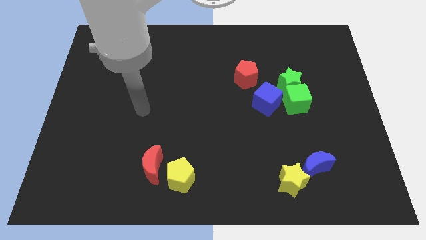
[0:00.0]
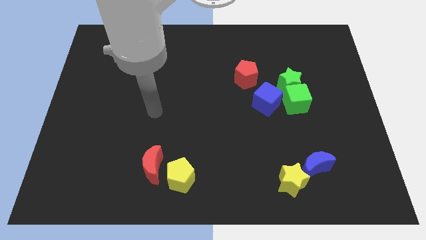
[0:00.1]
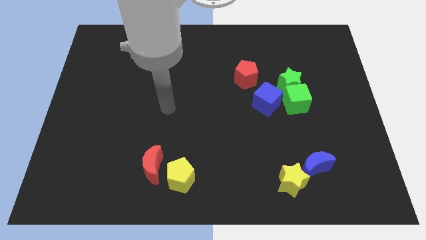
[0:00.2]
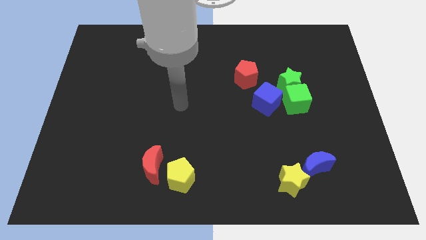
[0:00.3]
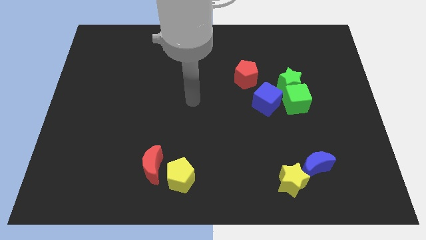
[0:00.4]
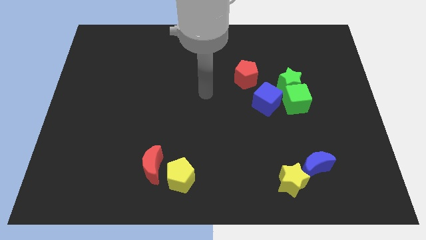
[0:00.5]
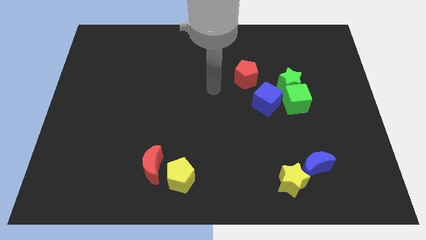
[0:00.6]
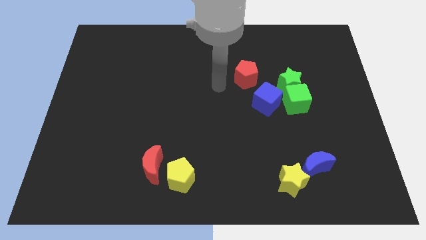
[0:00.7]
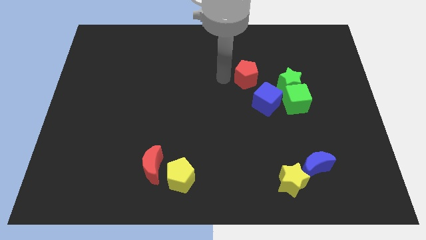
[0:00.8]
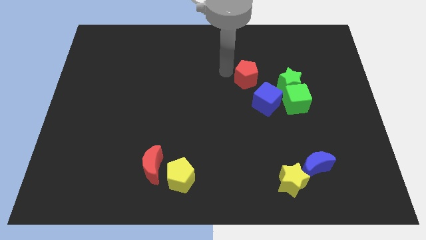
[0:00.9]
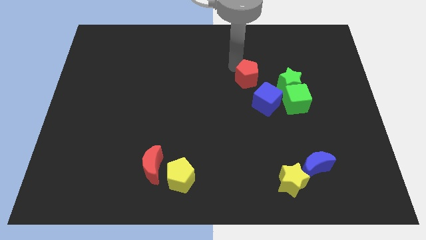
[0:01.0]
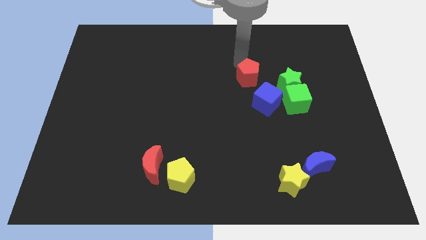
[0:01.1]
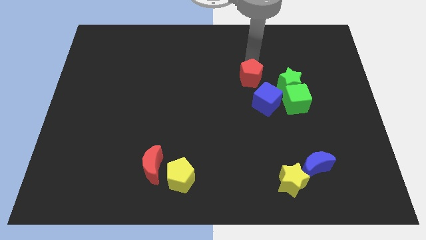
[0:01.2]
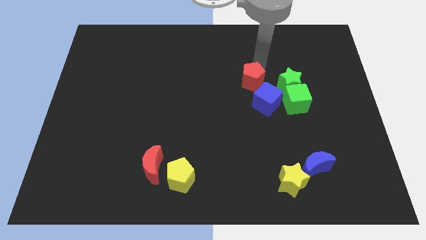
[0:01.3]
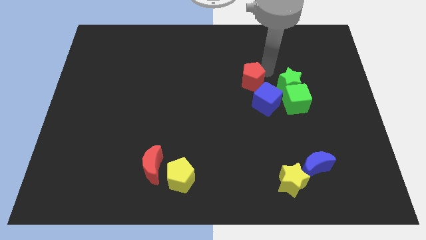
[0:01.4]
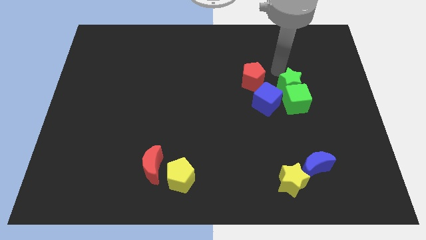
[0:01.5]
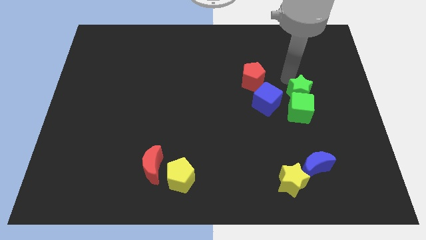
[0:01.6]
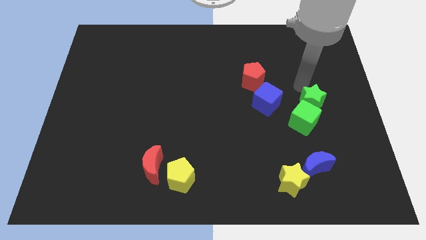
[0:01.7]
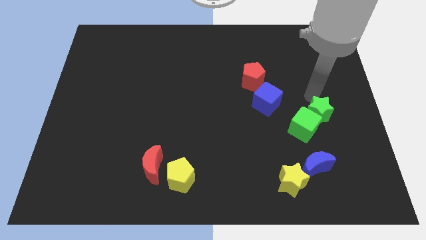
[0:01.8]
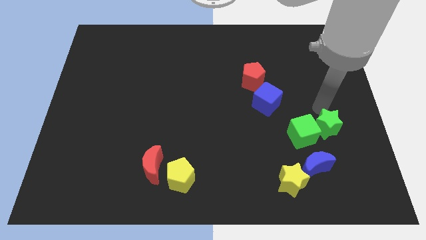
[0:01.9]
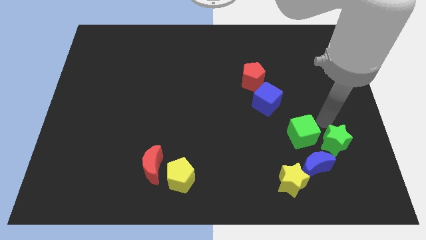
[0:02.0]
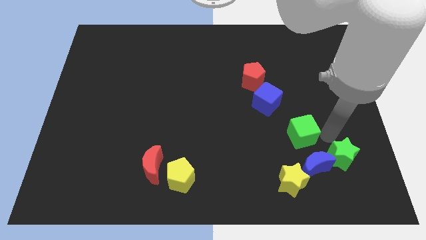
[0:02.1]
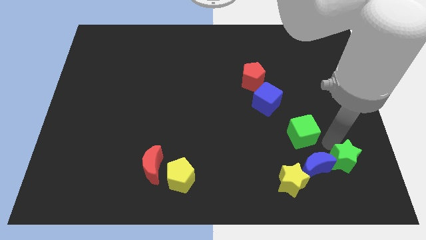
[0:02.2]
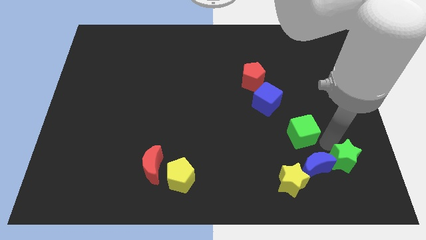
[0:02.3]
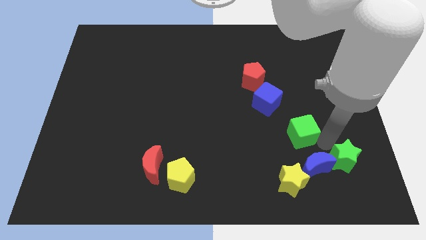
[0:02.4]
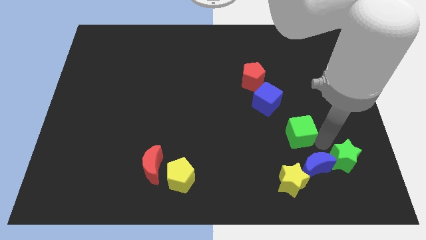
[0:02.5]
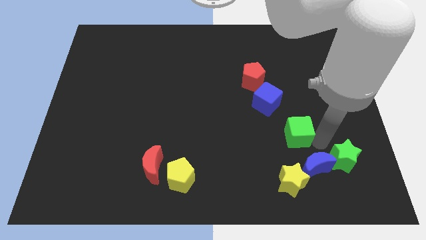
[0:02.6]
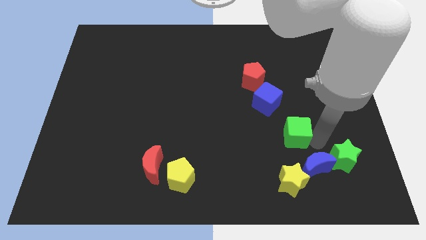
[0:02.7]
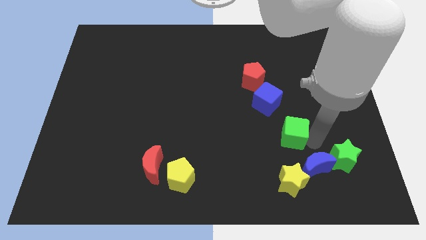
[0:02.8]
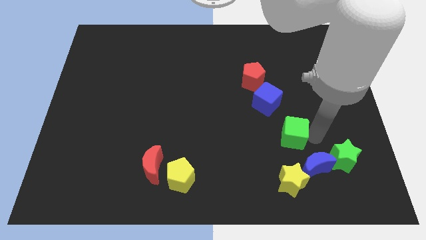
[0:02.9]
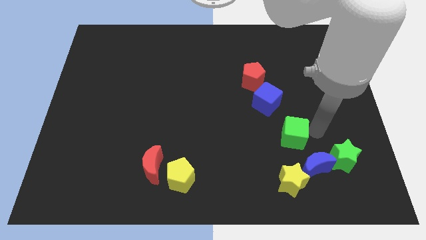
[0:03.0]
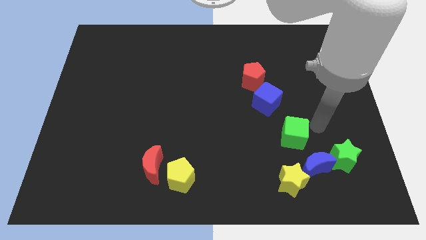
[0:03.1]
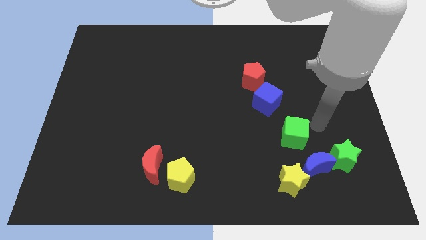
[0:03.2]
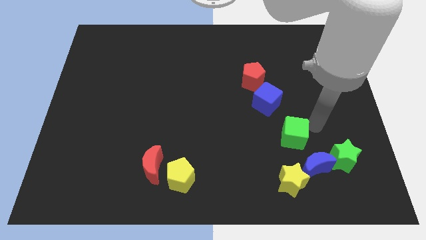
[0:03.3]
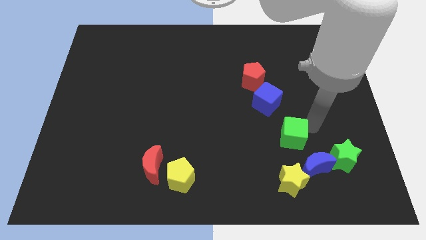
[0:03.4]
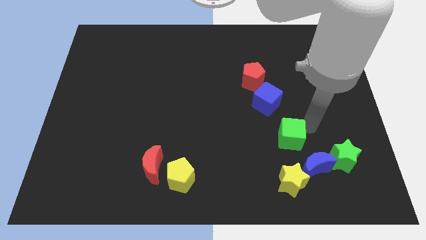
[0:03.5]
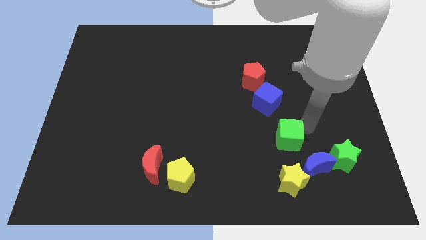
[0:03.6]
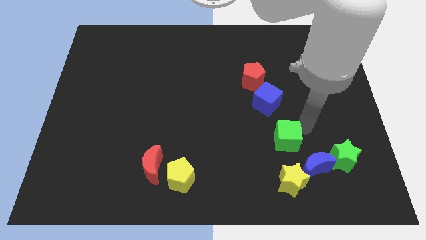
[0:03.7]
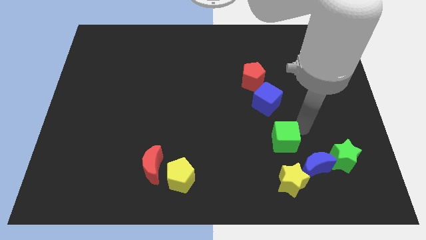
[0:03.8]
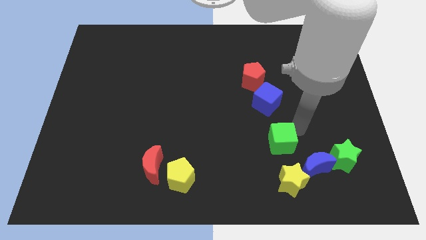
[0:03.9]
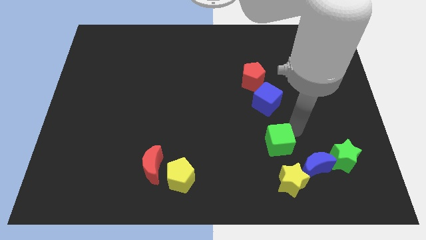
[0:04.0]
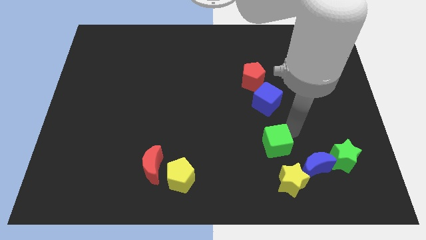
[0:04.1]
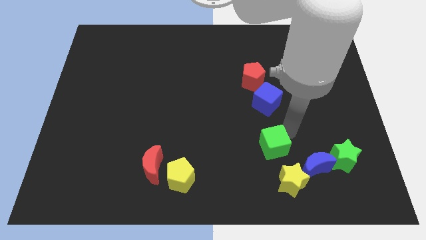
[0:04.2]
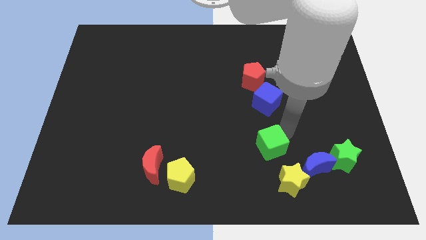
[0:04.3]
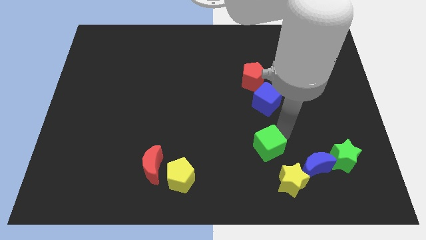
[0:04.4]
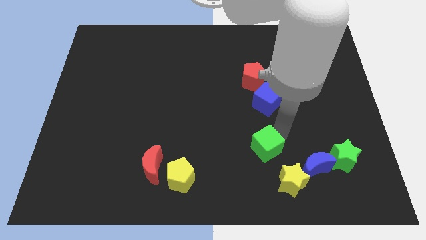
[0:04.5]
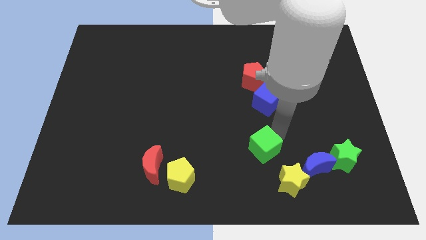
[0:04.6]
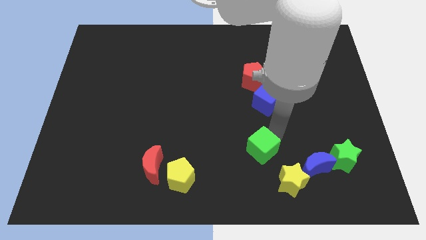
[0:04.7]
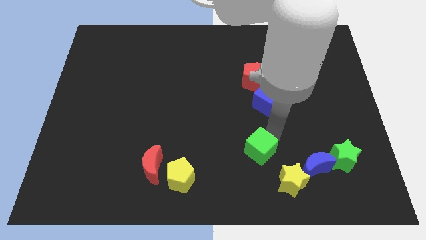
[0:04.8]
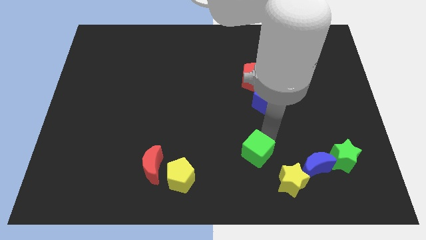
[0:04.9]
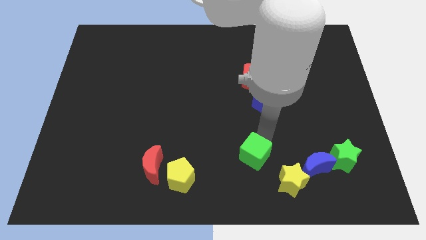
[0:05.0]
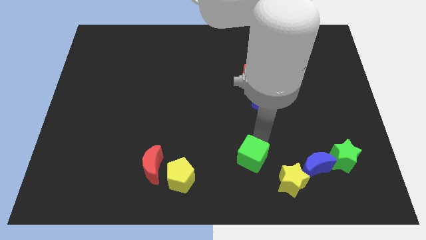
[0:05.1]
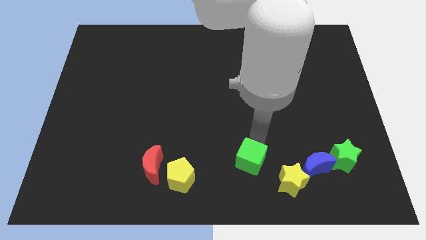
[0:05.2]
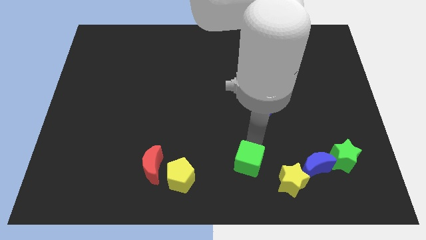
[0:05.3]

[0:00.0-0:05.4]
slide the green cube to the bottom
